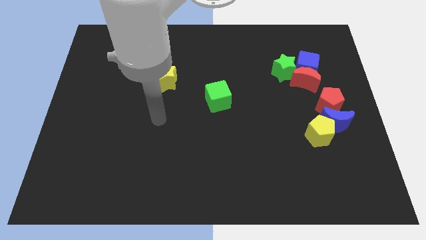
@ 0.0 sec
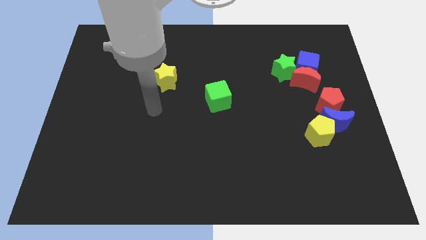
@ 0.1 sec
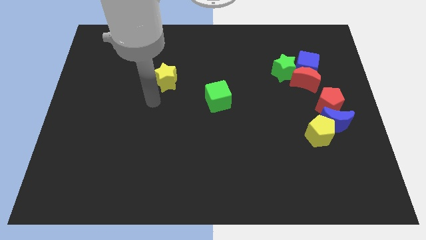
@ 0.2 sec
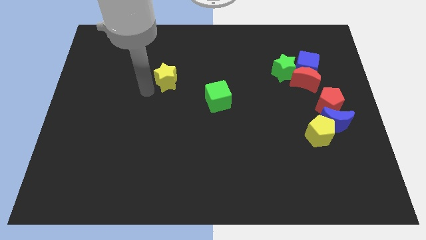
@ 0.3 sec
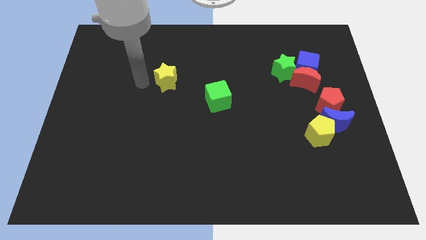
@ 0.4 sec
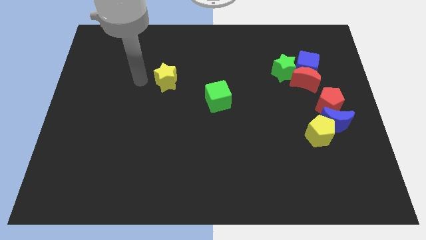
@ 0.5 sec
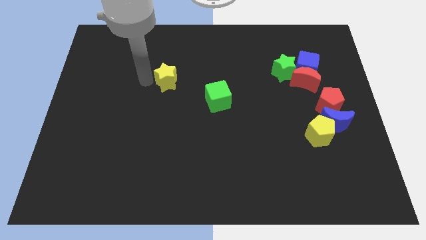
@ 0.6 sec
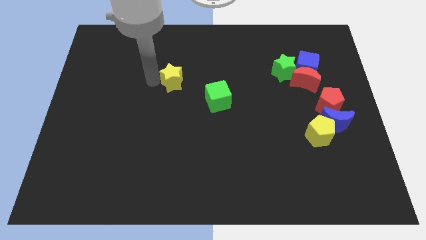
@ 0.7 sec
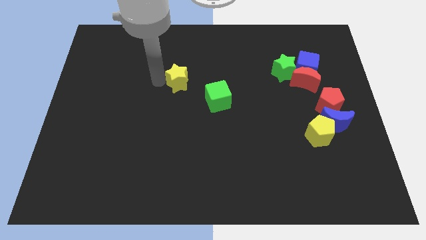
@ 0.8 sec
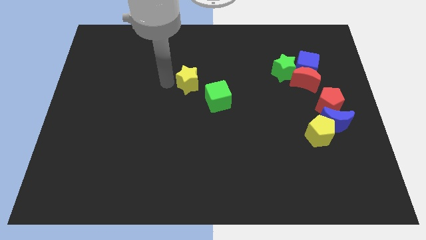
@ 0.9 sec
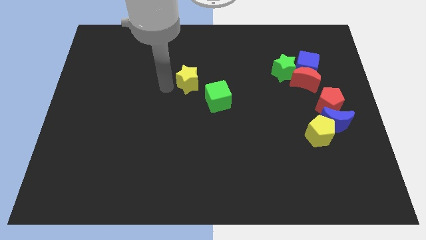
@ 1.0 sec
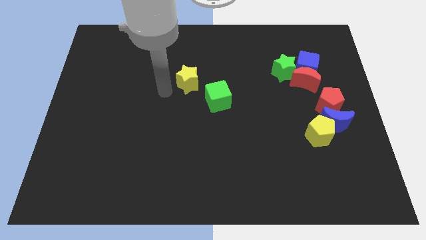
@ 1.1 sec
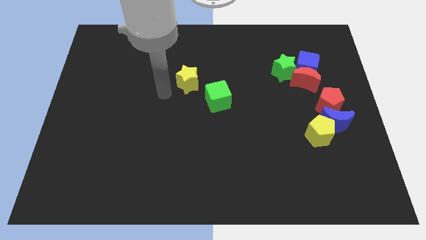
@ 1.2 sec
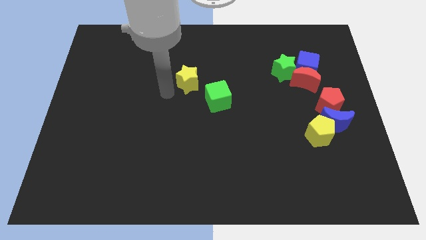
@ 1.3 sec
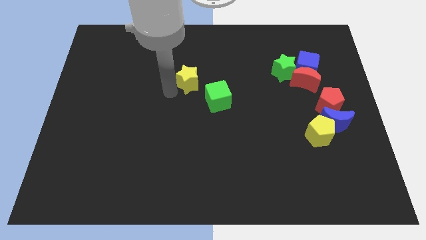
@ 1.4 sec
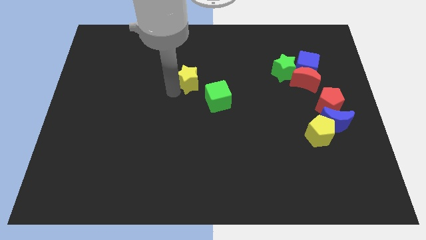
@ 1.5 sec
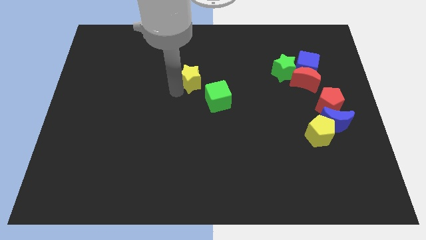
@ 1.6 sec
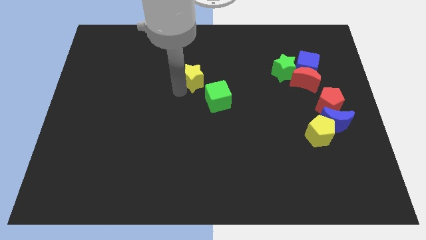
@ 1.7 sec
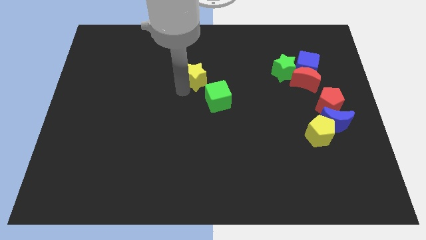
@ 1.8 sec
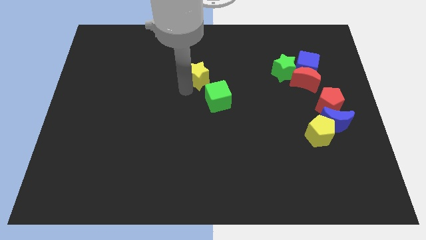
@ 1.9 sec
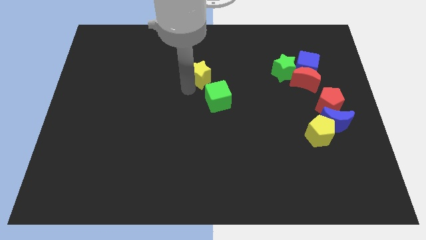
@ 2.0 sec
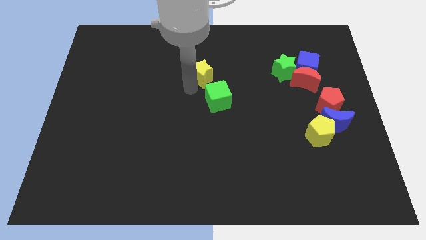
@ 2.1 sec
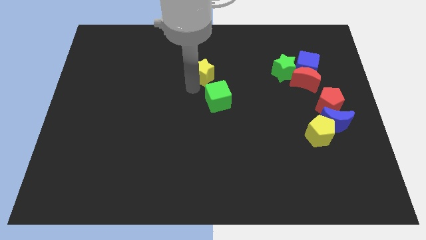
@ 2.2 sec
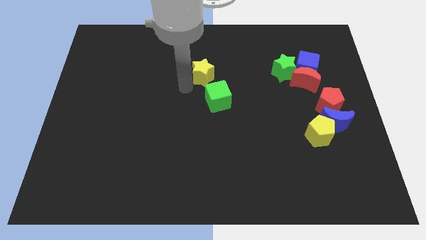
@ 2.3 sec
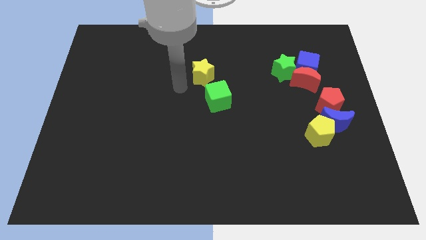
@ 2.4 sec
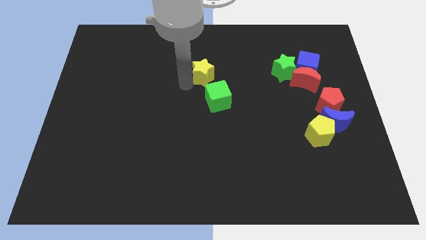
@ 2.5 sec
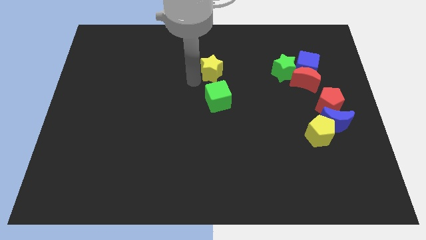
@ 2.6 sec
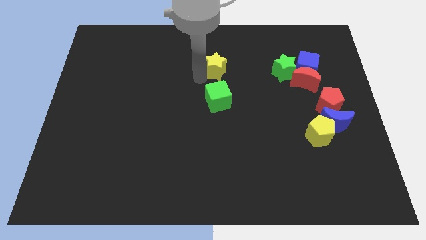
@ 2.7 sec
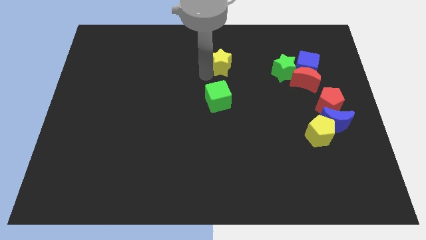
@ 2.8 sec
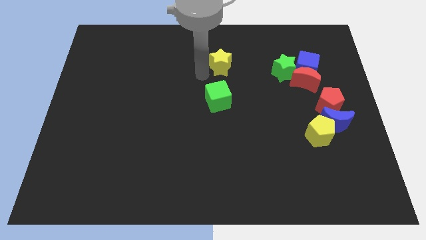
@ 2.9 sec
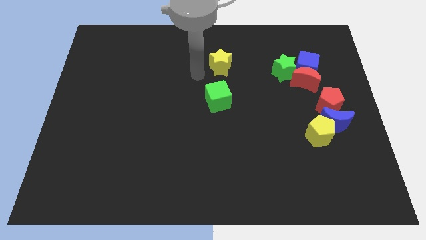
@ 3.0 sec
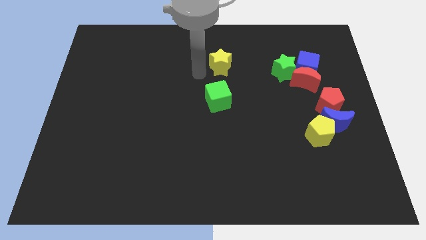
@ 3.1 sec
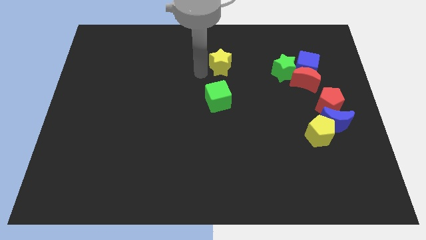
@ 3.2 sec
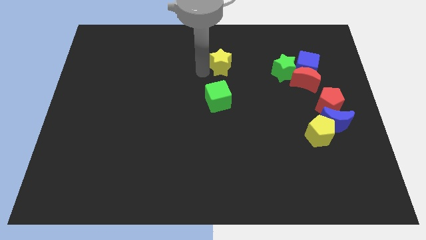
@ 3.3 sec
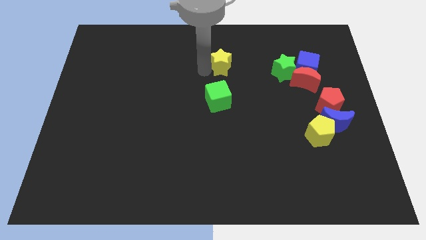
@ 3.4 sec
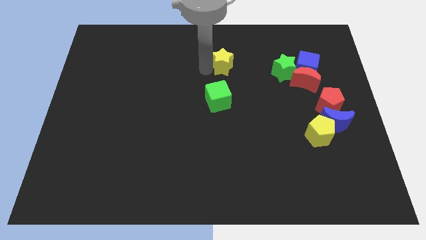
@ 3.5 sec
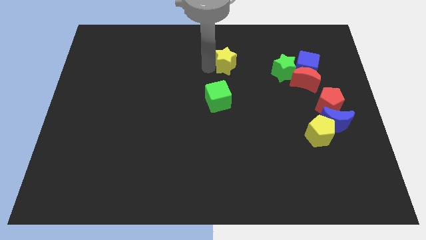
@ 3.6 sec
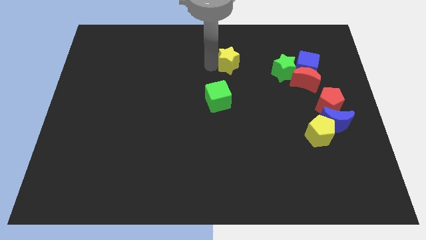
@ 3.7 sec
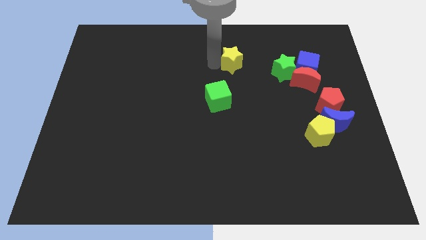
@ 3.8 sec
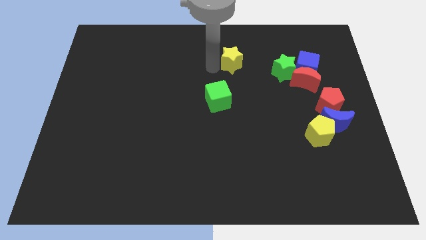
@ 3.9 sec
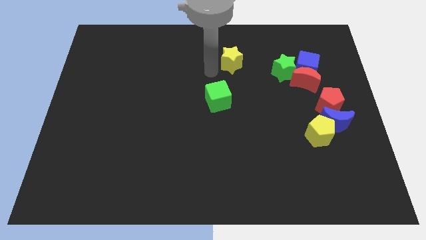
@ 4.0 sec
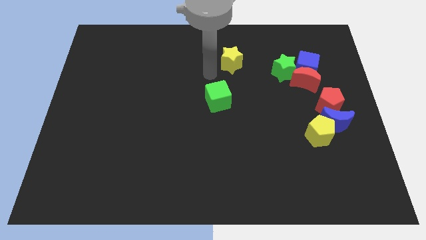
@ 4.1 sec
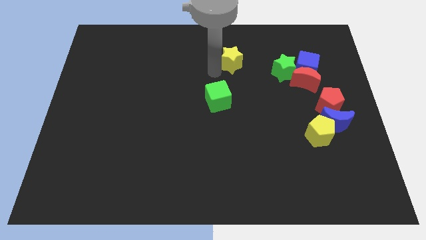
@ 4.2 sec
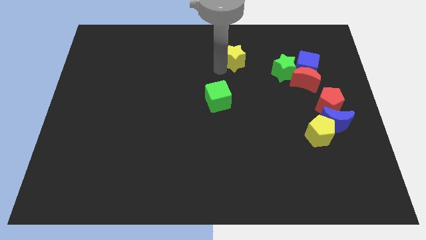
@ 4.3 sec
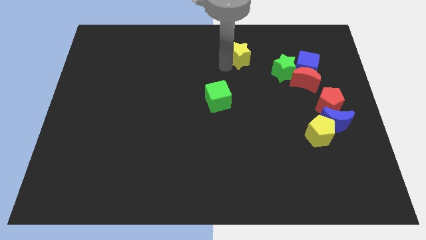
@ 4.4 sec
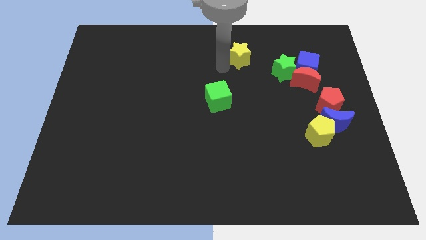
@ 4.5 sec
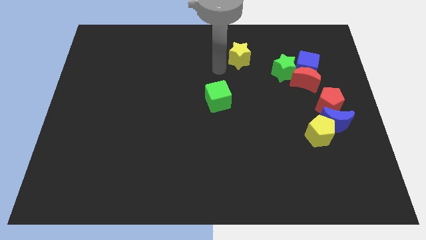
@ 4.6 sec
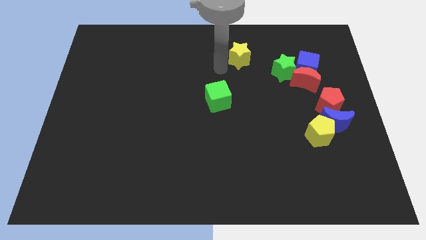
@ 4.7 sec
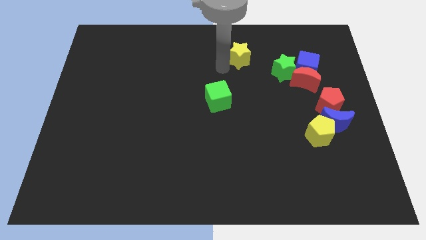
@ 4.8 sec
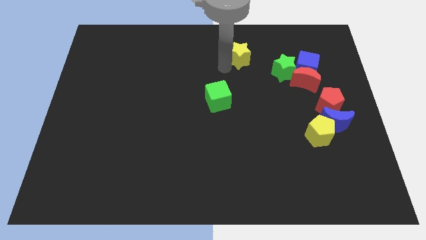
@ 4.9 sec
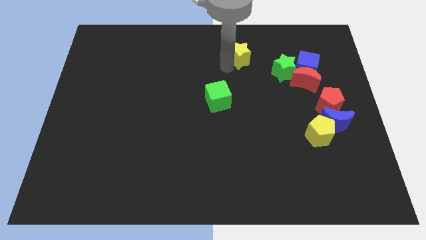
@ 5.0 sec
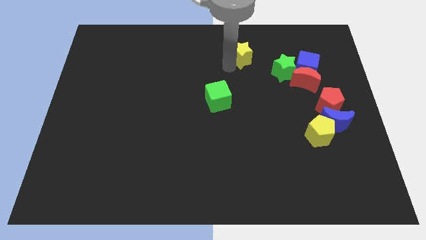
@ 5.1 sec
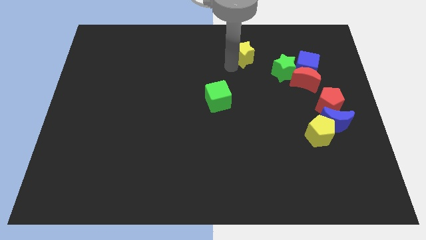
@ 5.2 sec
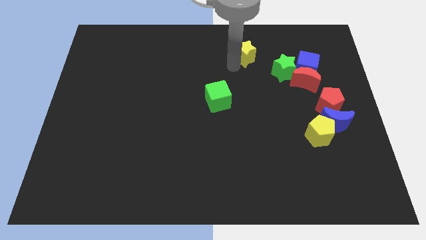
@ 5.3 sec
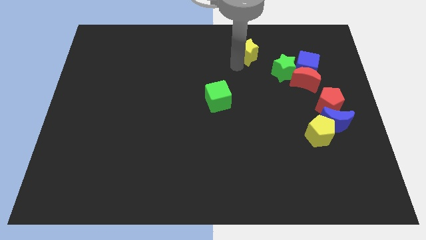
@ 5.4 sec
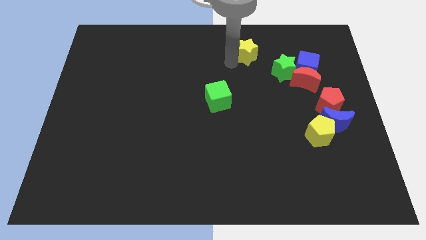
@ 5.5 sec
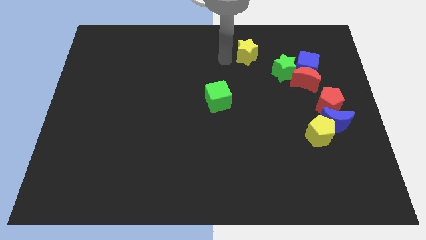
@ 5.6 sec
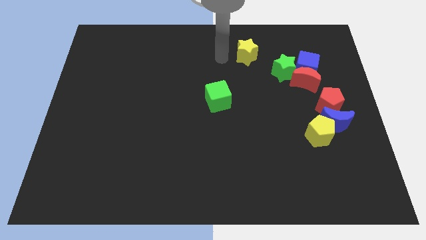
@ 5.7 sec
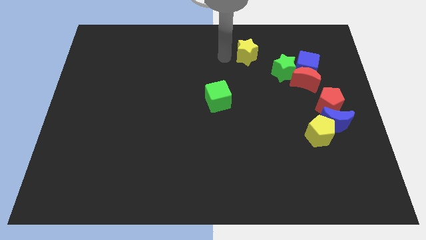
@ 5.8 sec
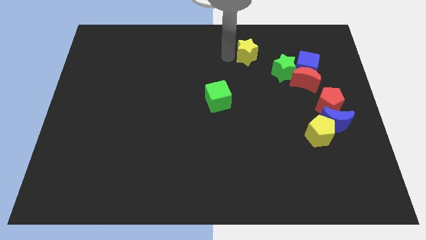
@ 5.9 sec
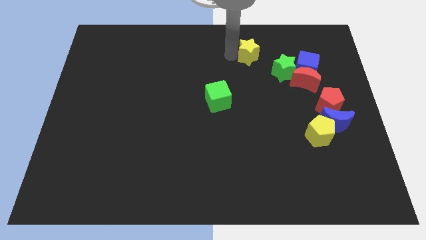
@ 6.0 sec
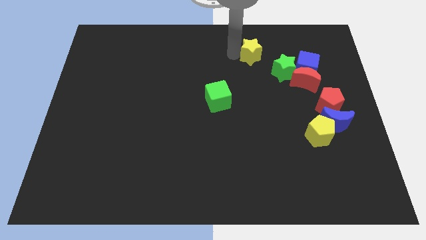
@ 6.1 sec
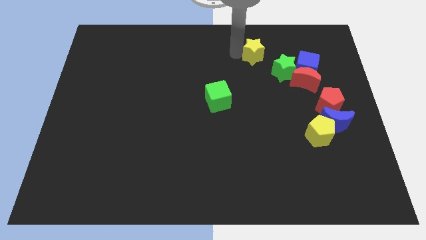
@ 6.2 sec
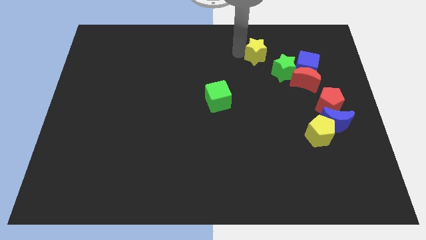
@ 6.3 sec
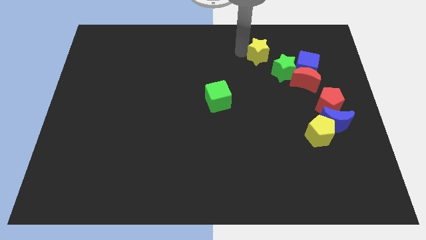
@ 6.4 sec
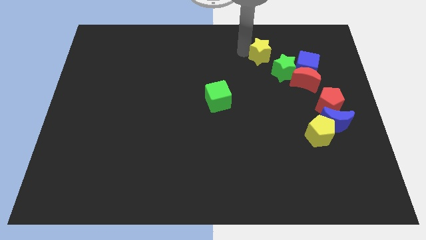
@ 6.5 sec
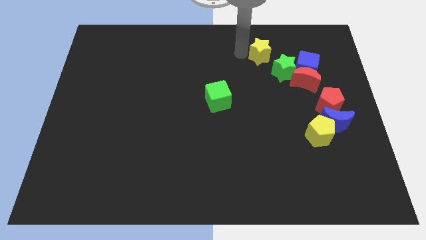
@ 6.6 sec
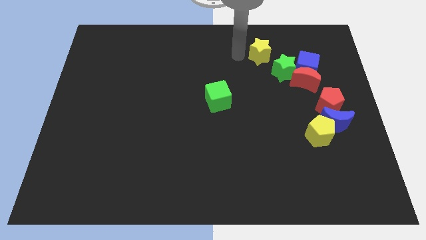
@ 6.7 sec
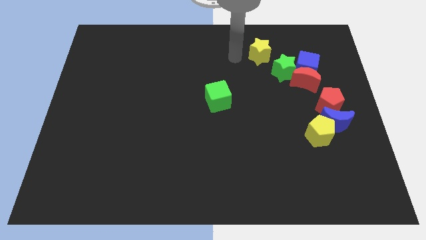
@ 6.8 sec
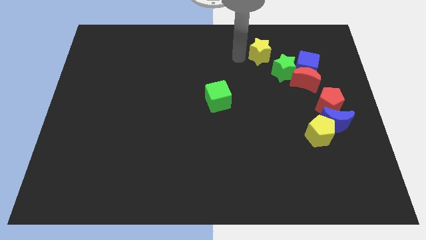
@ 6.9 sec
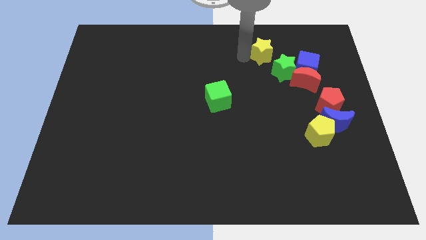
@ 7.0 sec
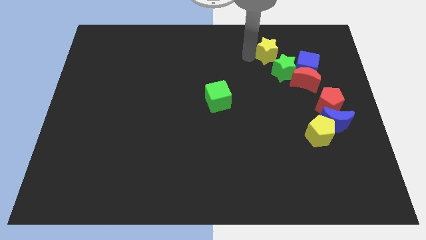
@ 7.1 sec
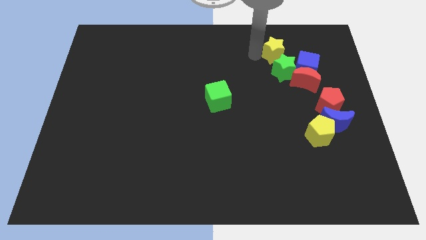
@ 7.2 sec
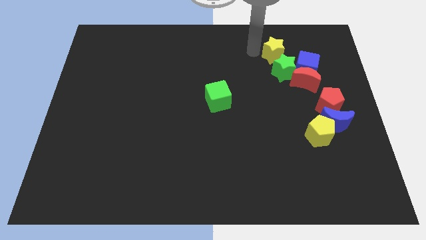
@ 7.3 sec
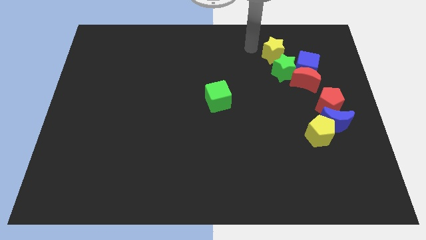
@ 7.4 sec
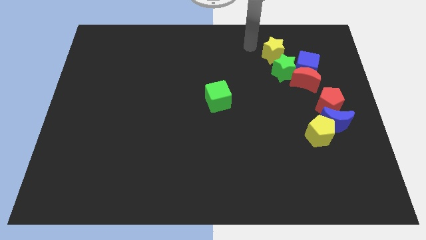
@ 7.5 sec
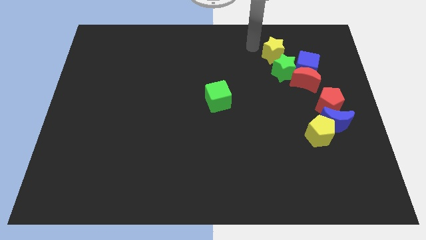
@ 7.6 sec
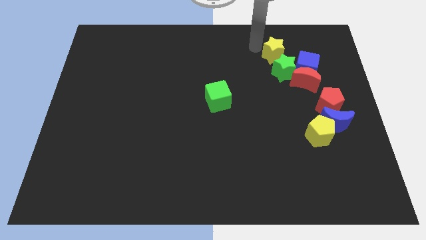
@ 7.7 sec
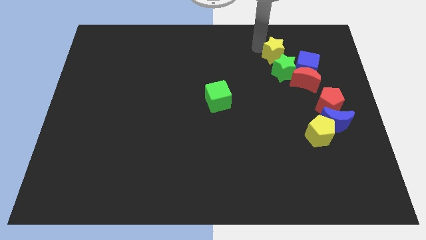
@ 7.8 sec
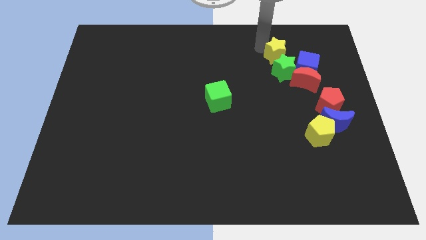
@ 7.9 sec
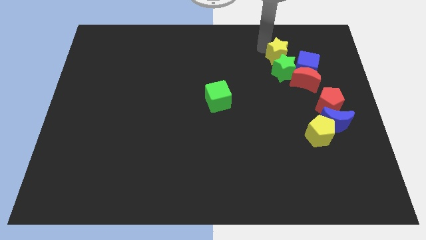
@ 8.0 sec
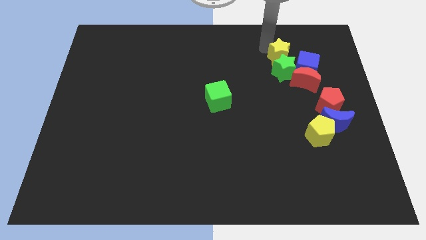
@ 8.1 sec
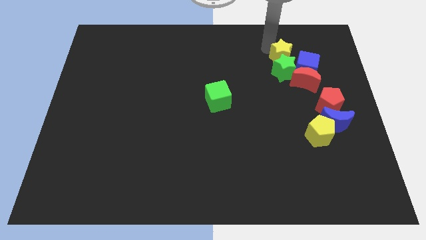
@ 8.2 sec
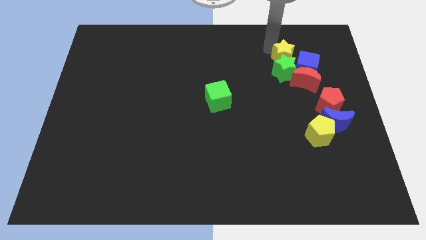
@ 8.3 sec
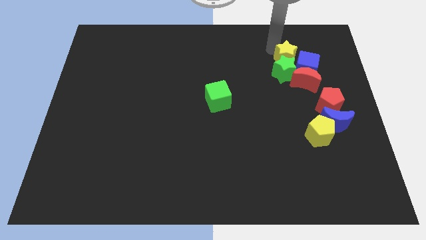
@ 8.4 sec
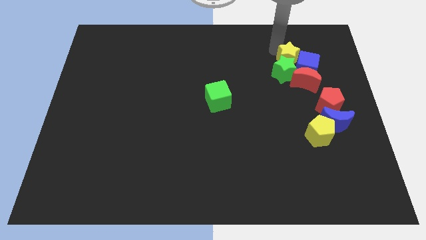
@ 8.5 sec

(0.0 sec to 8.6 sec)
put the yellow star towards the blue cube
